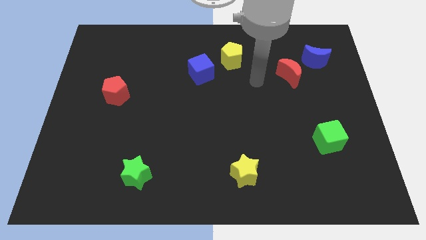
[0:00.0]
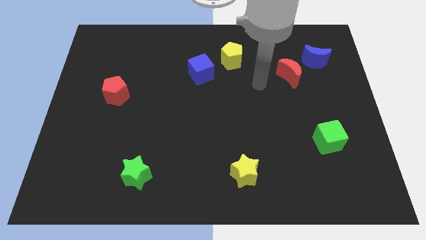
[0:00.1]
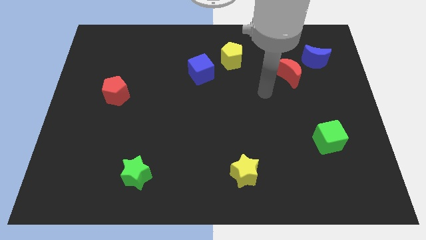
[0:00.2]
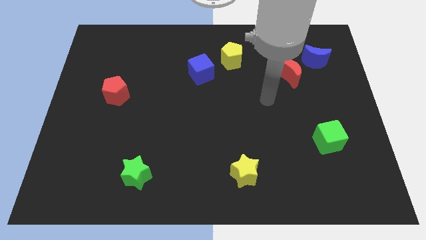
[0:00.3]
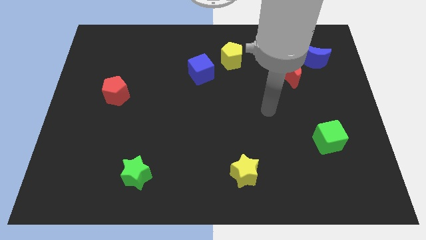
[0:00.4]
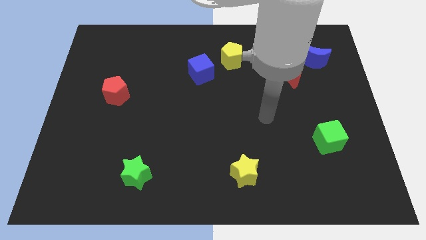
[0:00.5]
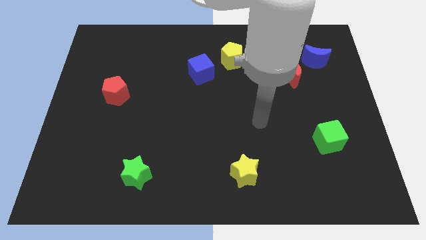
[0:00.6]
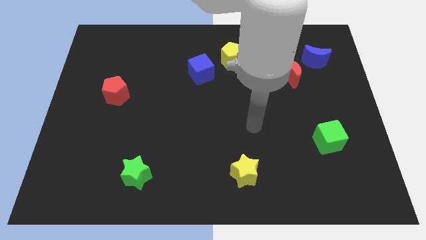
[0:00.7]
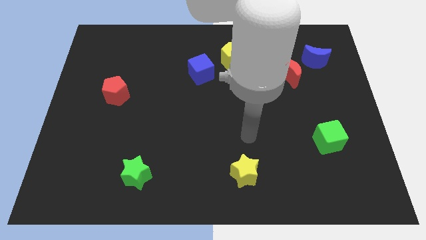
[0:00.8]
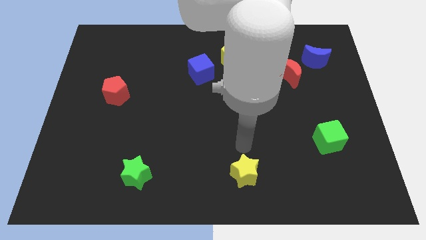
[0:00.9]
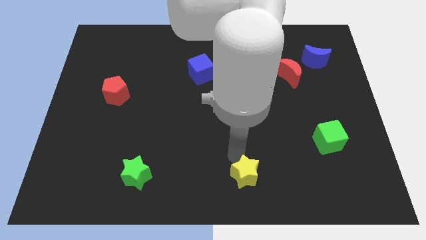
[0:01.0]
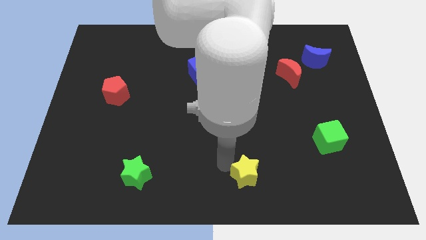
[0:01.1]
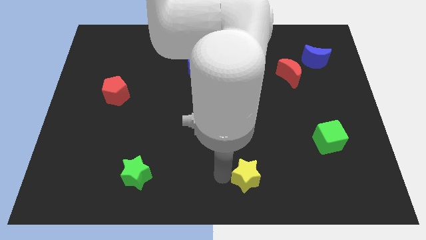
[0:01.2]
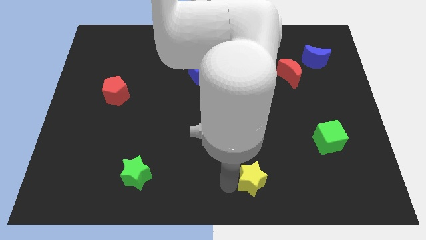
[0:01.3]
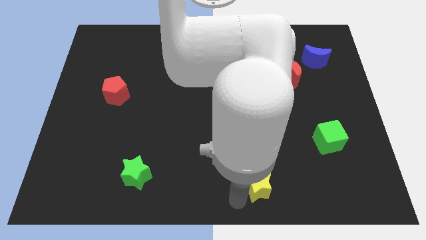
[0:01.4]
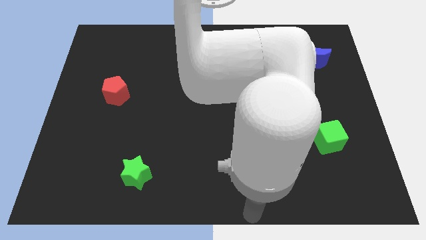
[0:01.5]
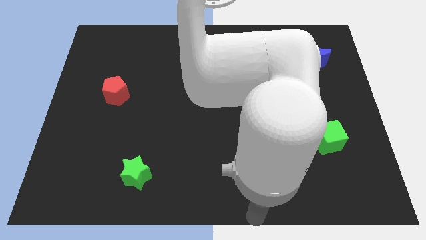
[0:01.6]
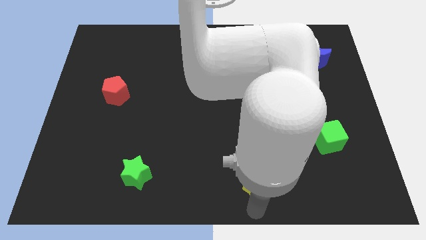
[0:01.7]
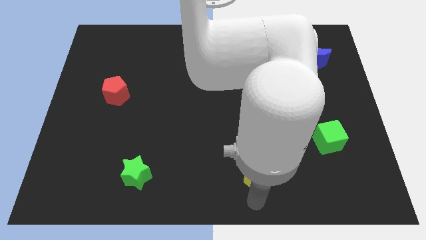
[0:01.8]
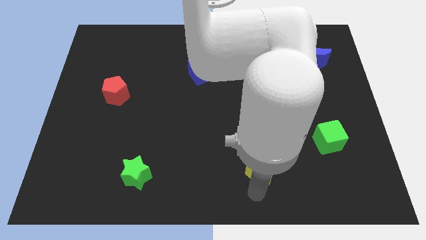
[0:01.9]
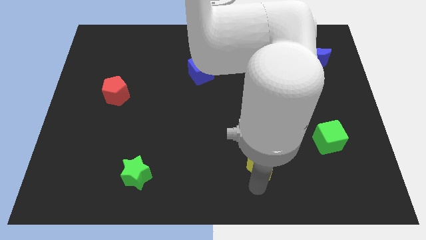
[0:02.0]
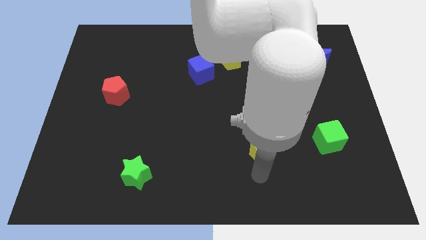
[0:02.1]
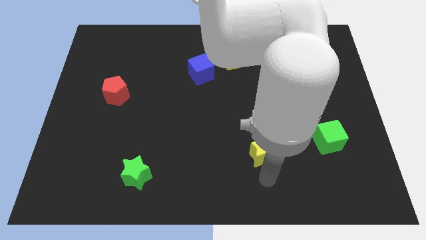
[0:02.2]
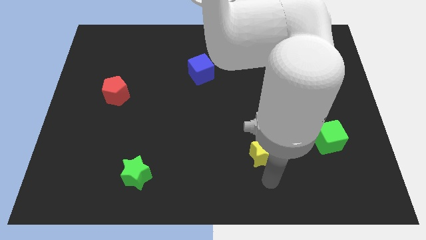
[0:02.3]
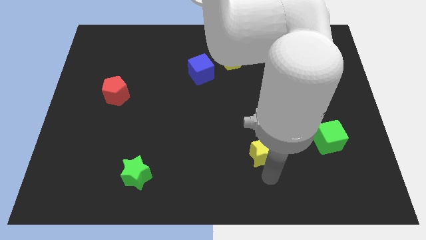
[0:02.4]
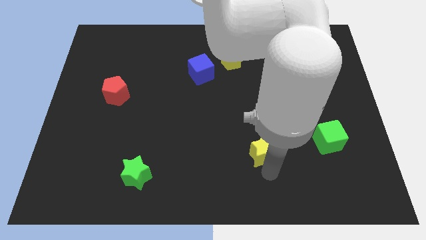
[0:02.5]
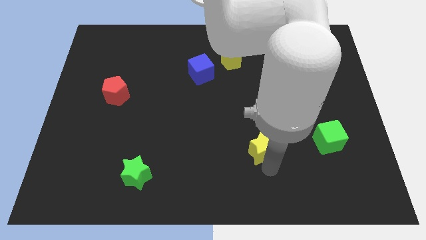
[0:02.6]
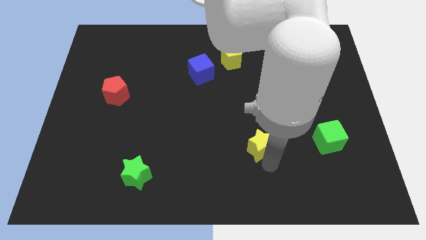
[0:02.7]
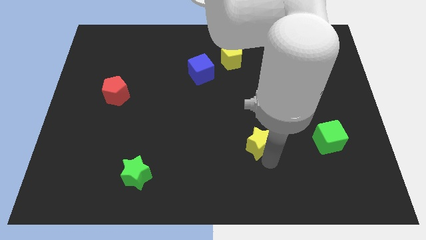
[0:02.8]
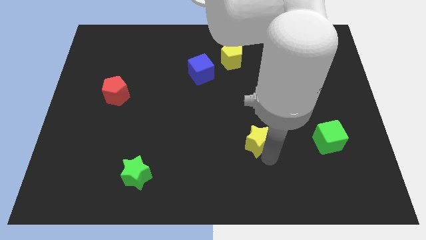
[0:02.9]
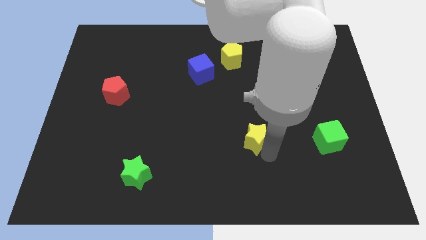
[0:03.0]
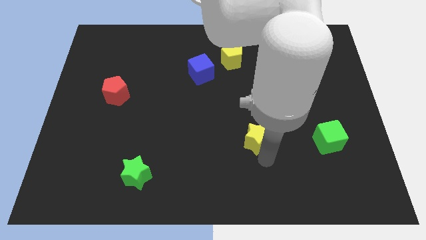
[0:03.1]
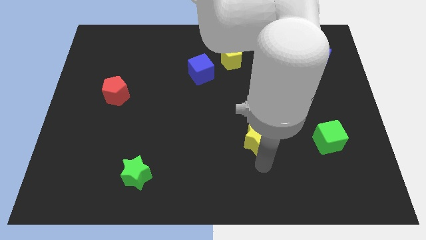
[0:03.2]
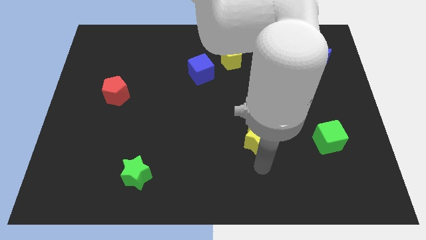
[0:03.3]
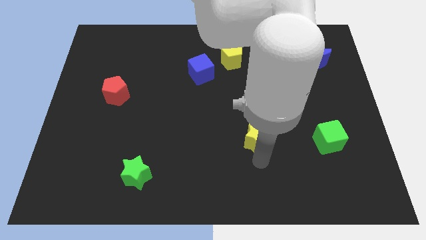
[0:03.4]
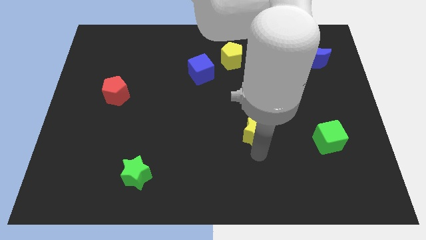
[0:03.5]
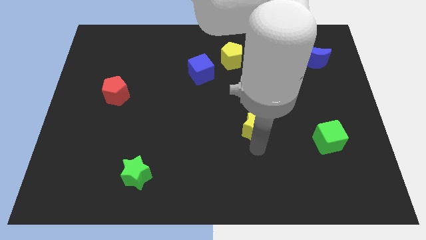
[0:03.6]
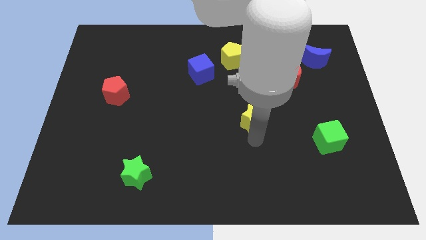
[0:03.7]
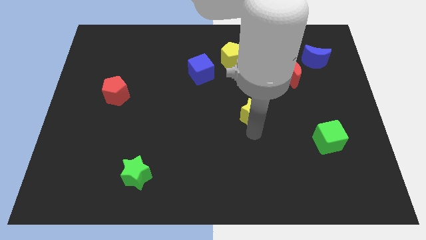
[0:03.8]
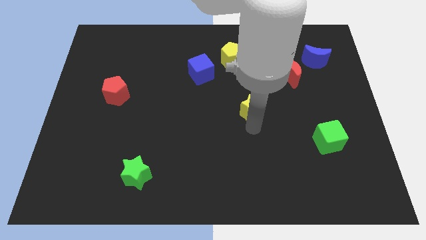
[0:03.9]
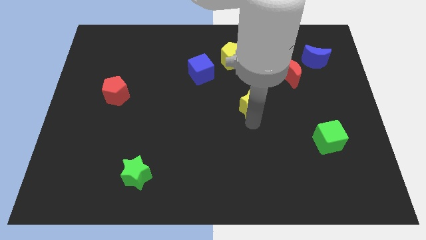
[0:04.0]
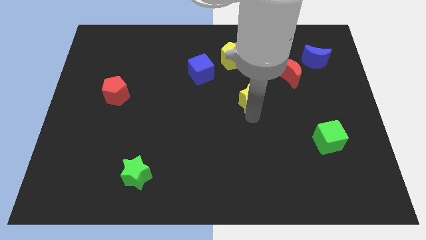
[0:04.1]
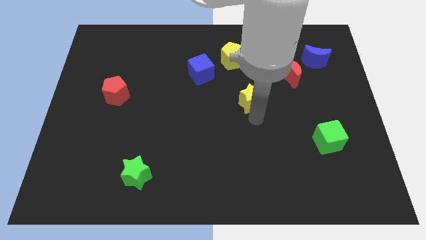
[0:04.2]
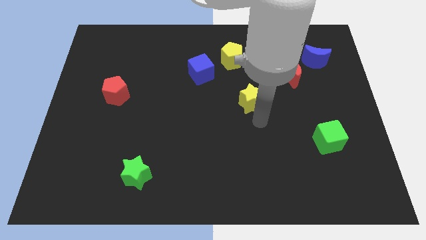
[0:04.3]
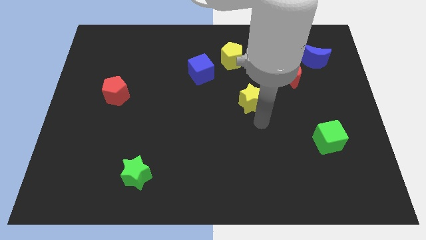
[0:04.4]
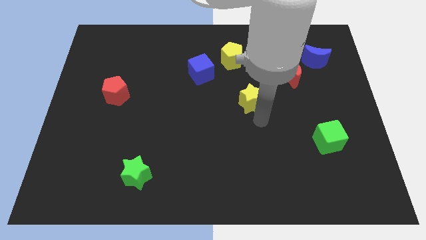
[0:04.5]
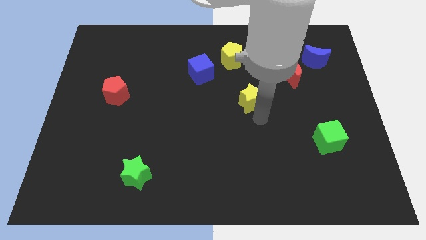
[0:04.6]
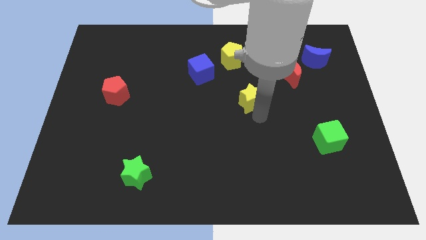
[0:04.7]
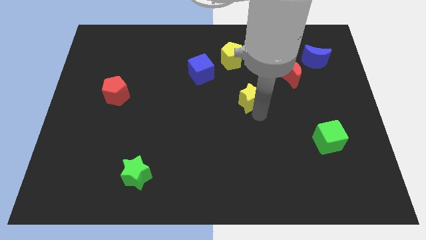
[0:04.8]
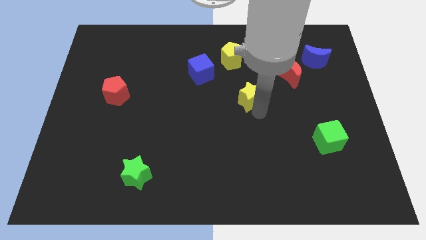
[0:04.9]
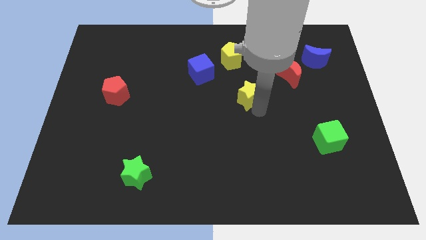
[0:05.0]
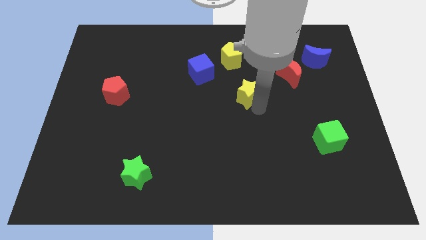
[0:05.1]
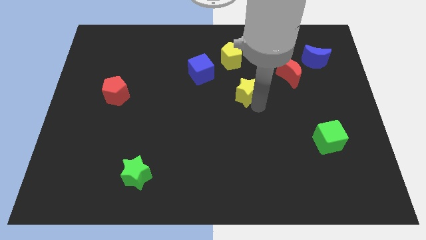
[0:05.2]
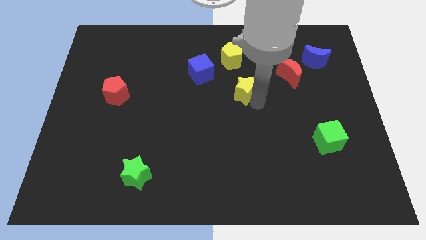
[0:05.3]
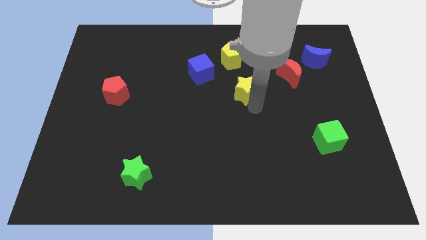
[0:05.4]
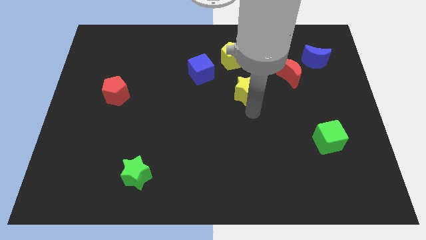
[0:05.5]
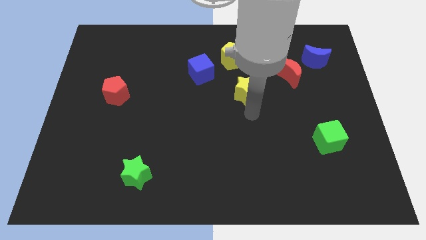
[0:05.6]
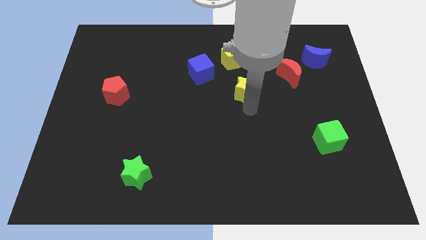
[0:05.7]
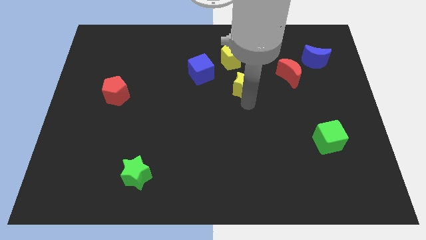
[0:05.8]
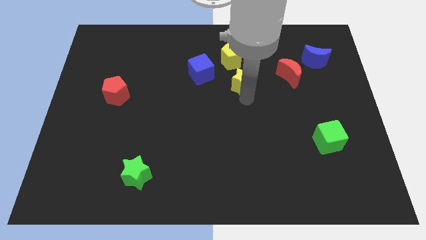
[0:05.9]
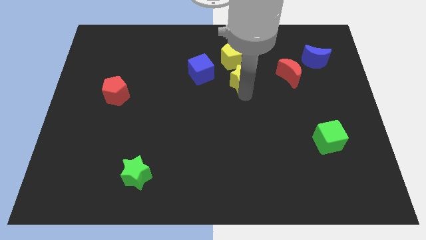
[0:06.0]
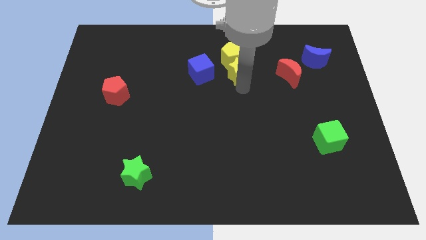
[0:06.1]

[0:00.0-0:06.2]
move the yellow star close to the yellow pentagon
